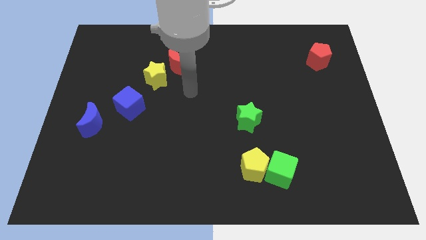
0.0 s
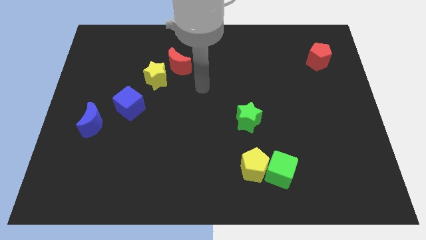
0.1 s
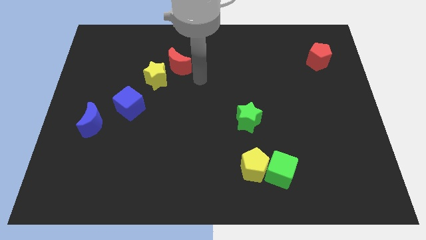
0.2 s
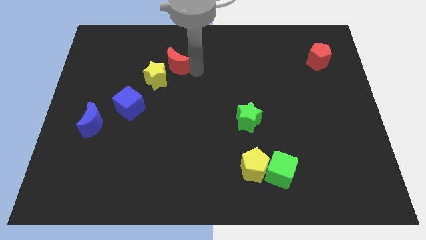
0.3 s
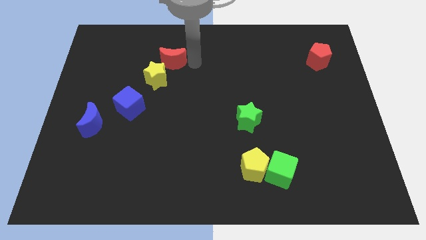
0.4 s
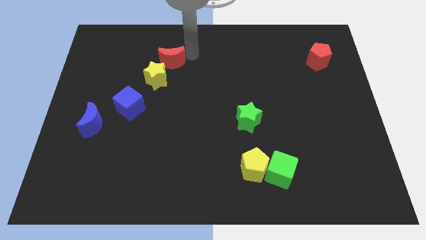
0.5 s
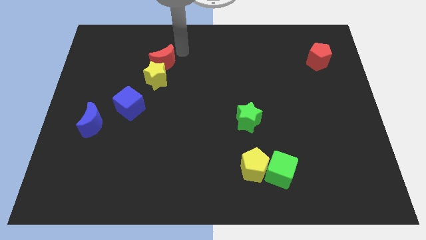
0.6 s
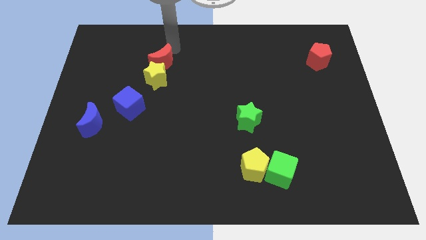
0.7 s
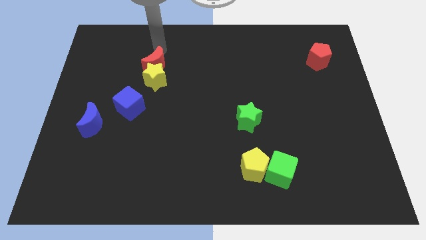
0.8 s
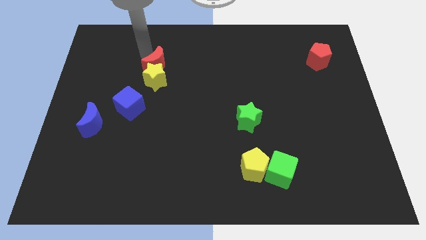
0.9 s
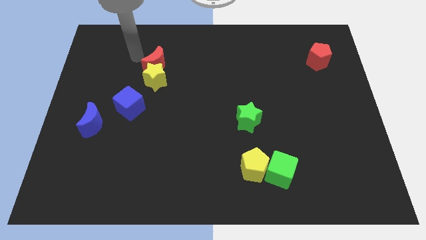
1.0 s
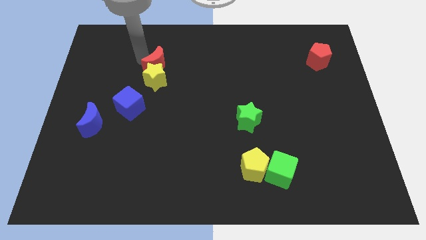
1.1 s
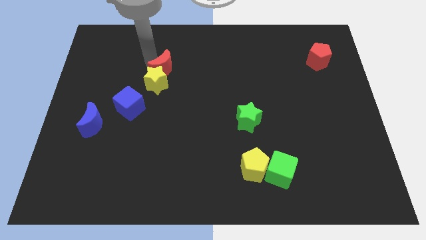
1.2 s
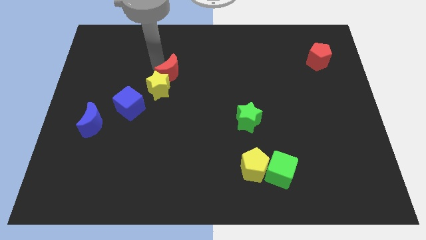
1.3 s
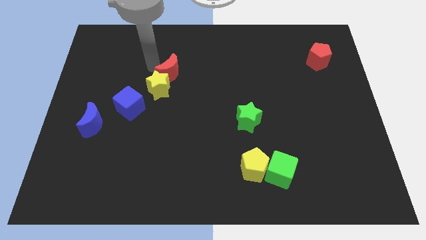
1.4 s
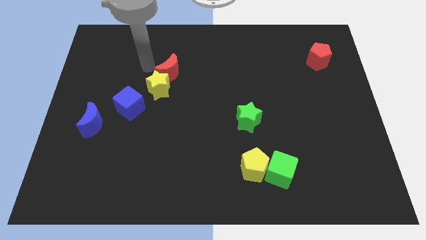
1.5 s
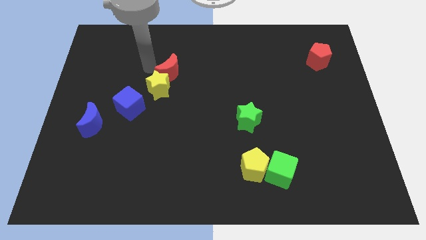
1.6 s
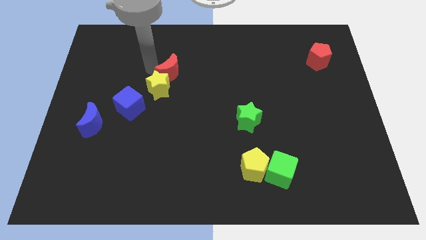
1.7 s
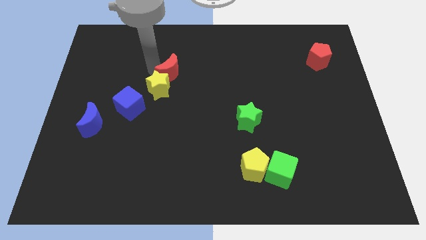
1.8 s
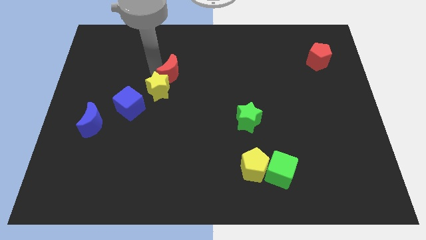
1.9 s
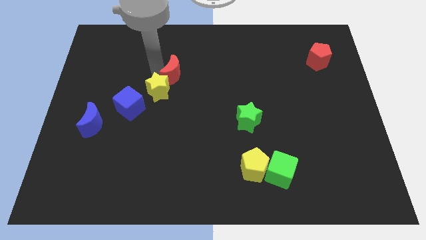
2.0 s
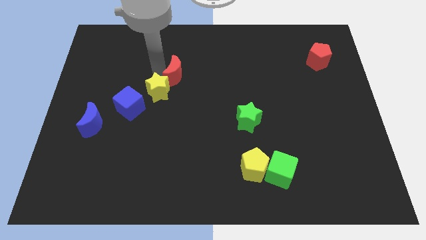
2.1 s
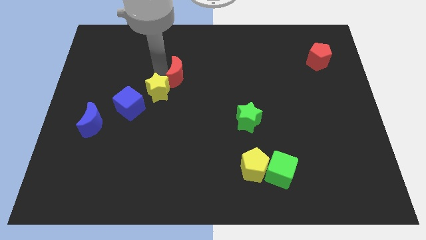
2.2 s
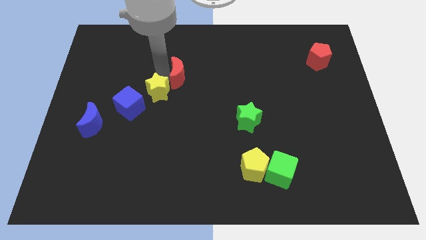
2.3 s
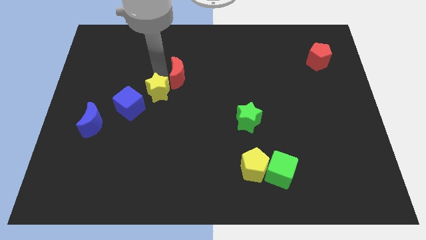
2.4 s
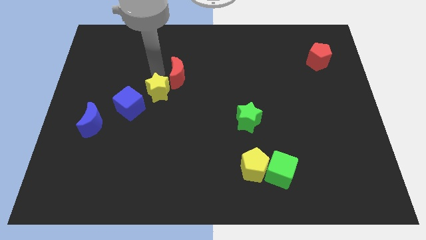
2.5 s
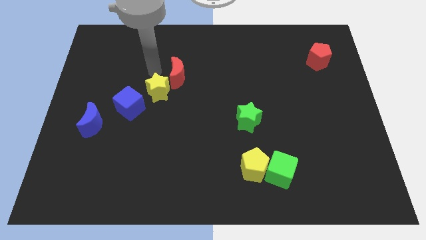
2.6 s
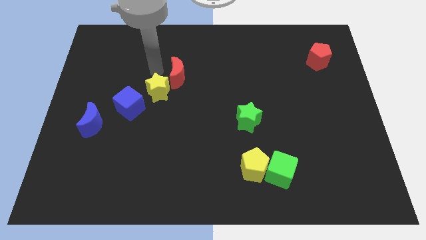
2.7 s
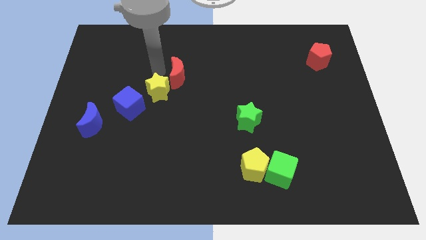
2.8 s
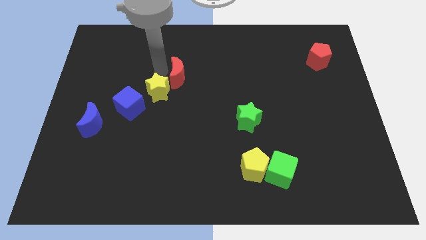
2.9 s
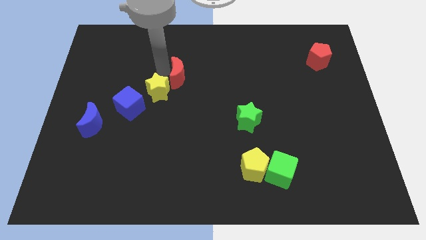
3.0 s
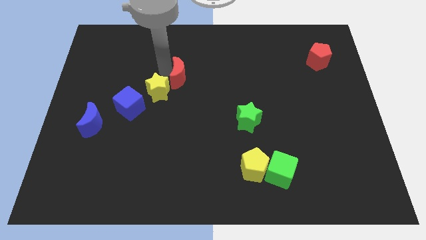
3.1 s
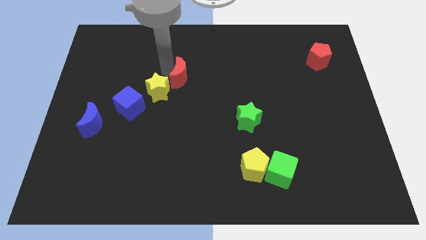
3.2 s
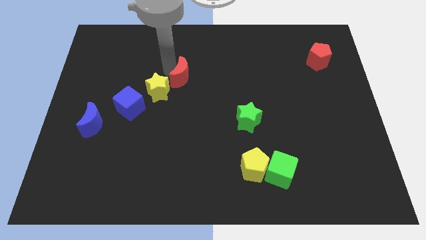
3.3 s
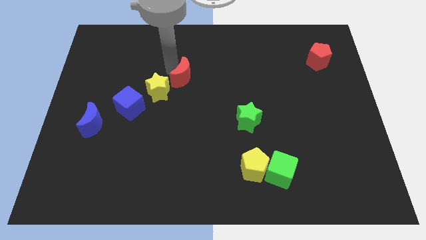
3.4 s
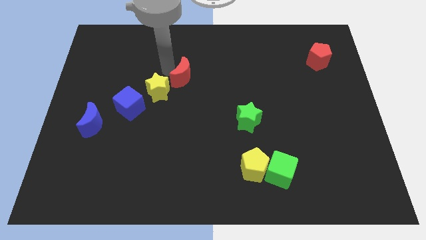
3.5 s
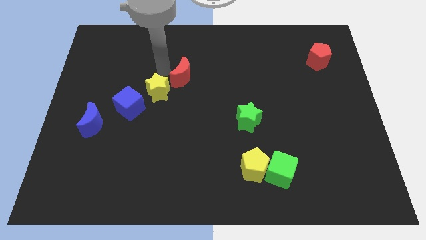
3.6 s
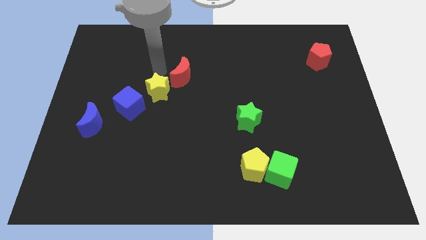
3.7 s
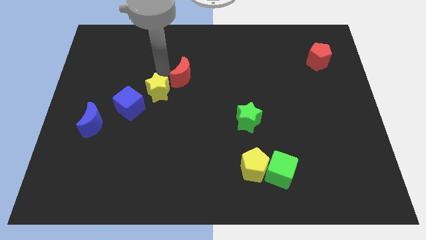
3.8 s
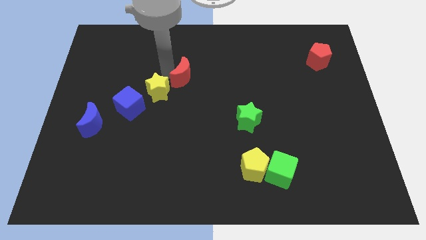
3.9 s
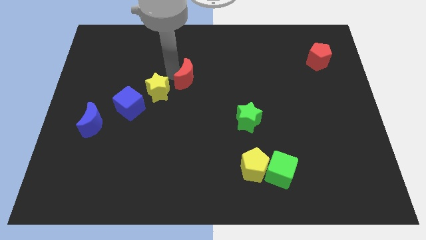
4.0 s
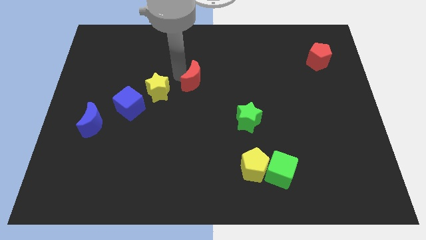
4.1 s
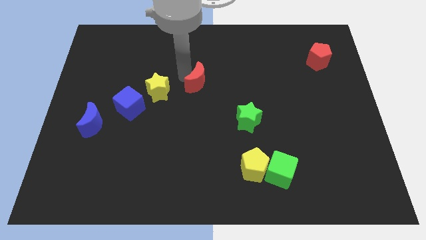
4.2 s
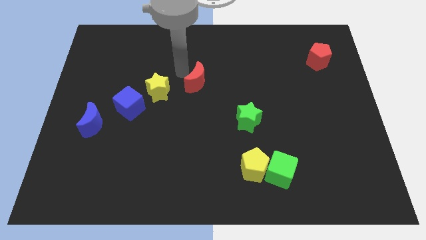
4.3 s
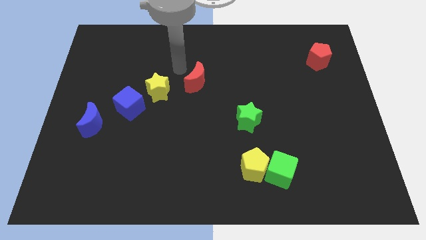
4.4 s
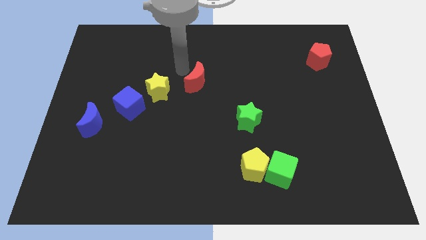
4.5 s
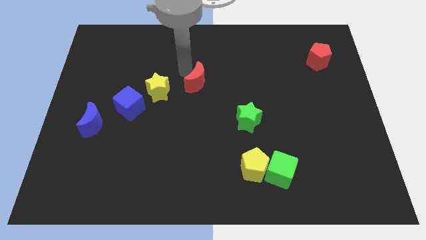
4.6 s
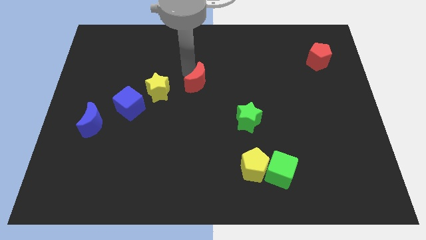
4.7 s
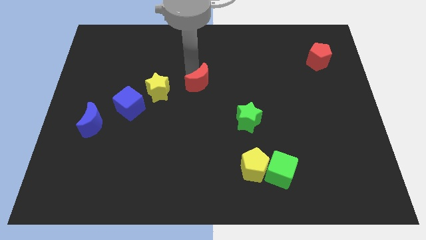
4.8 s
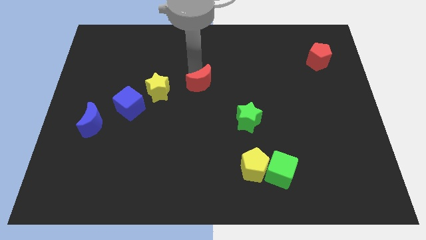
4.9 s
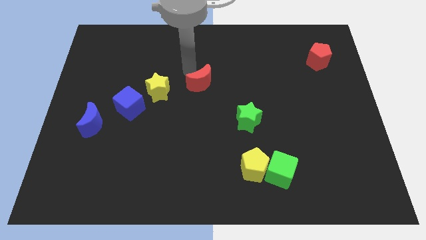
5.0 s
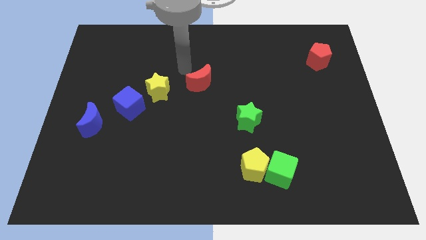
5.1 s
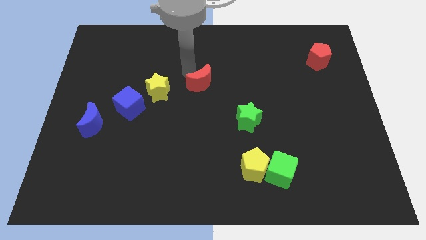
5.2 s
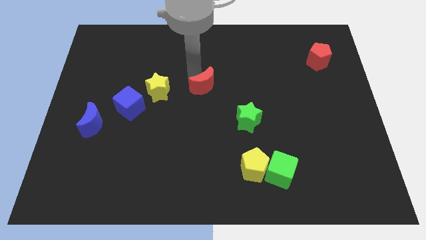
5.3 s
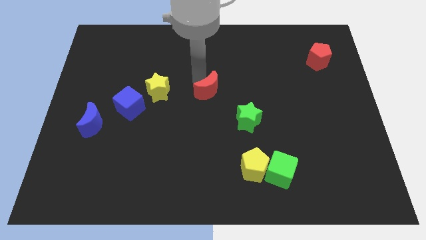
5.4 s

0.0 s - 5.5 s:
slide the red moon diagonally up and to the left of the green star

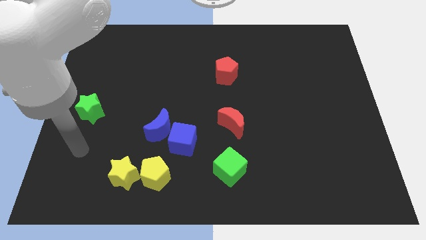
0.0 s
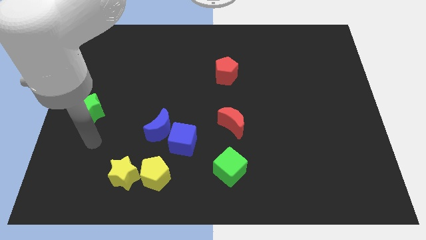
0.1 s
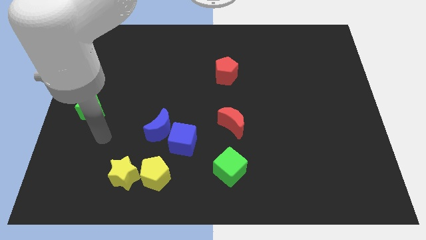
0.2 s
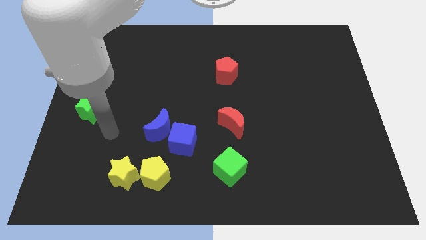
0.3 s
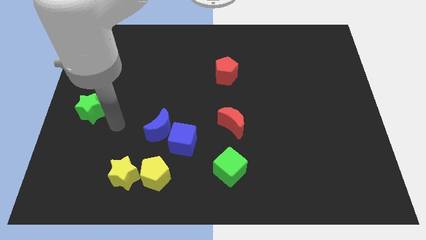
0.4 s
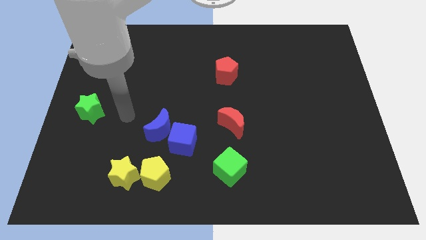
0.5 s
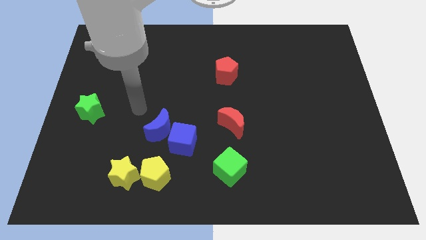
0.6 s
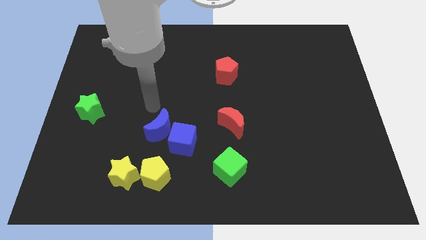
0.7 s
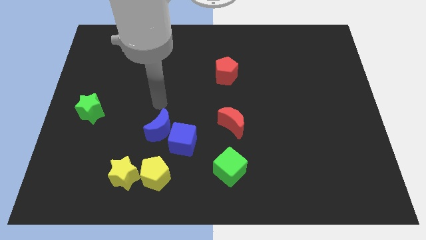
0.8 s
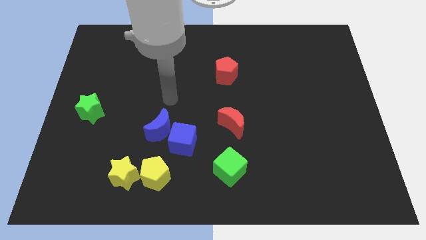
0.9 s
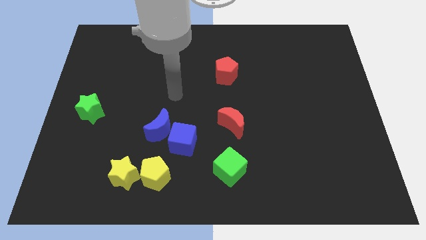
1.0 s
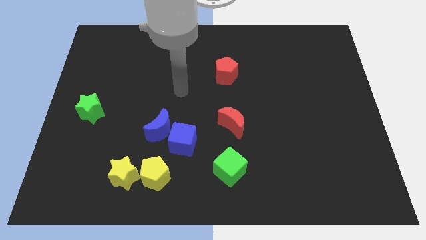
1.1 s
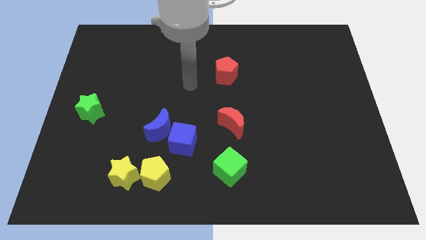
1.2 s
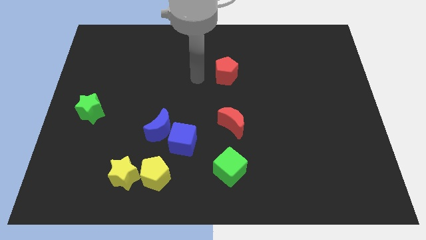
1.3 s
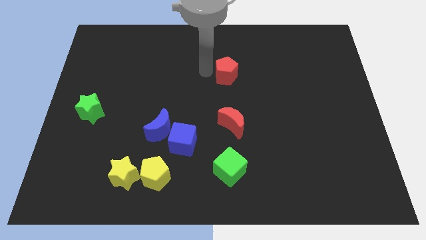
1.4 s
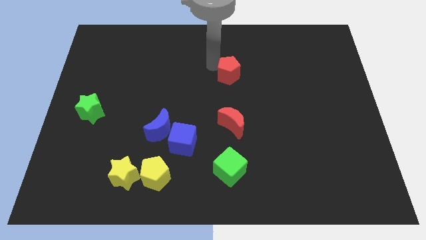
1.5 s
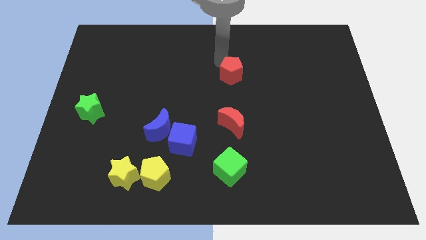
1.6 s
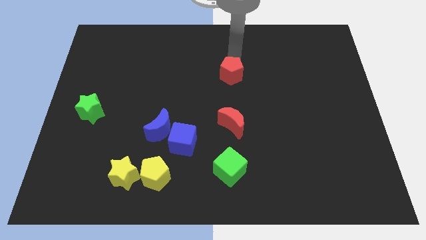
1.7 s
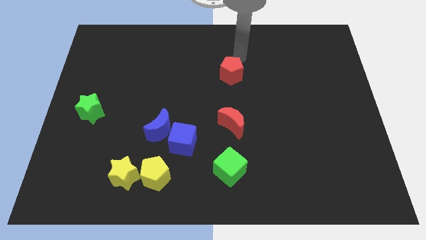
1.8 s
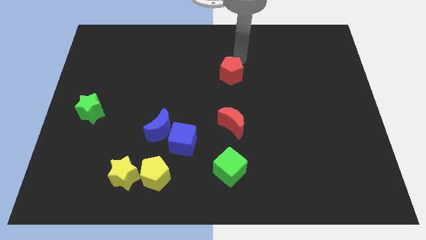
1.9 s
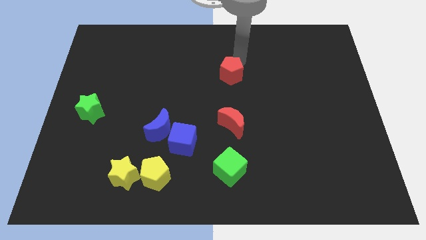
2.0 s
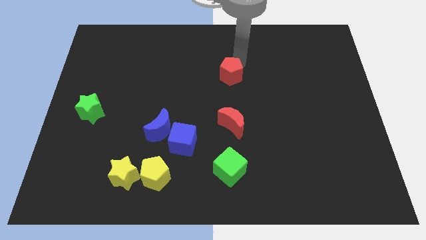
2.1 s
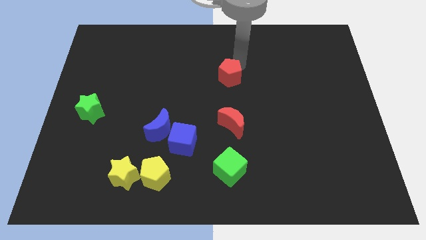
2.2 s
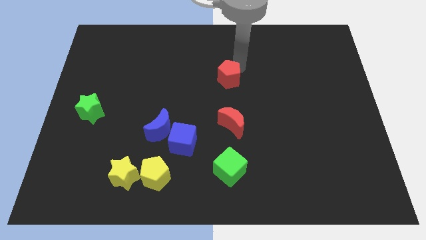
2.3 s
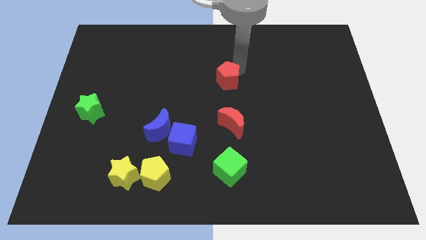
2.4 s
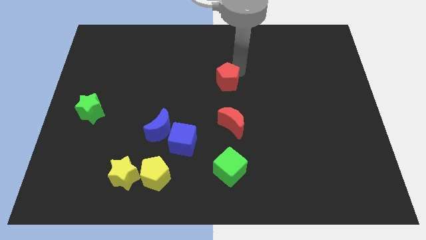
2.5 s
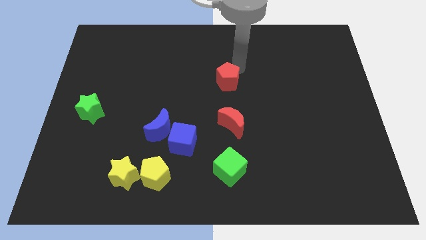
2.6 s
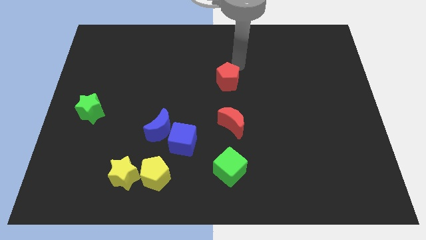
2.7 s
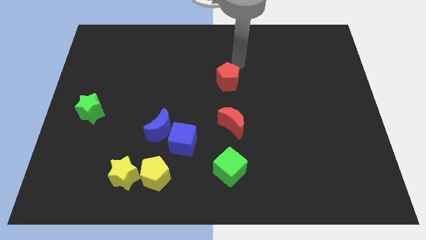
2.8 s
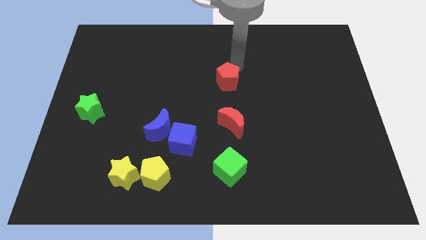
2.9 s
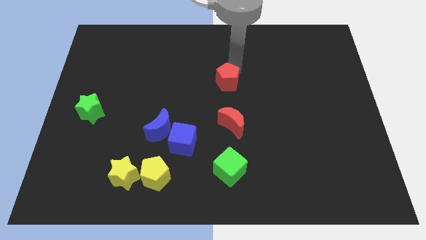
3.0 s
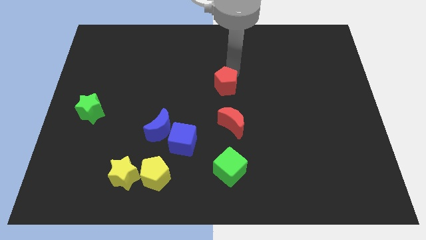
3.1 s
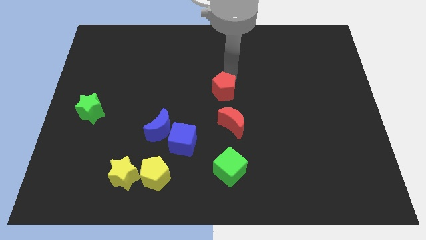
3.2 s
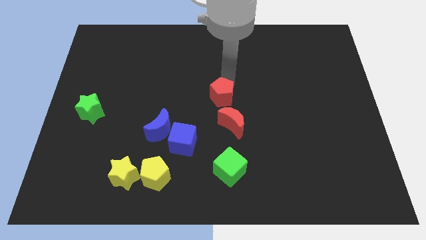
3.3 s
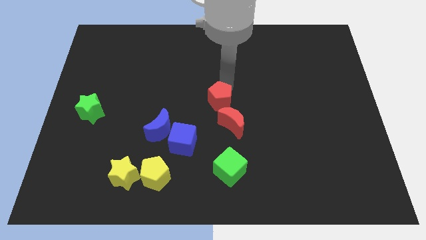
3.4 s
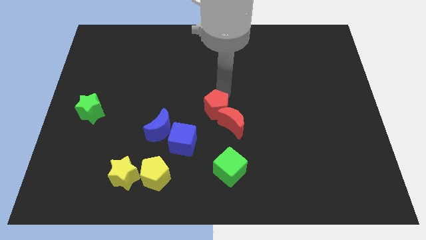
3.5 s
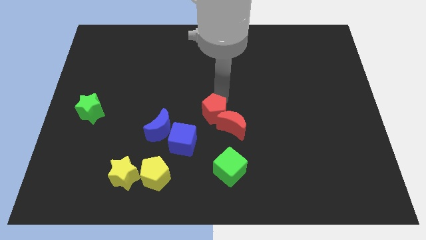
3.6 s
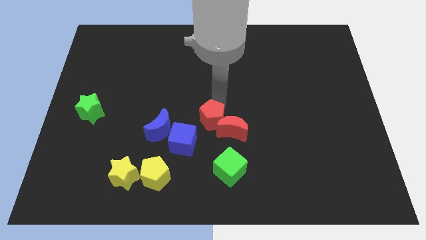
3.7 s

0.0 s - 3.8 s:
move the red pentagon right of the blue moon
